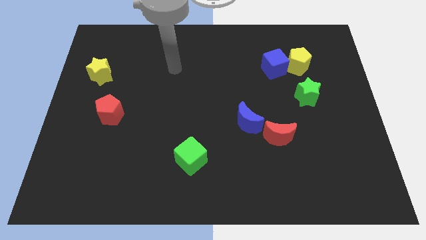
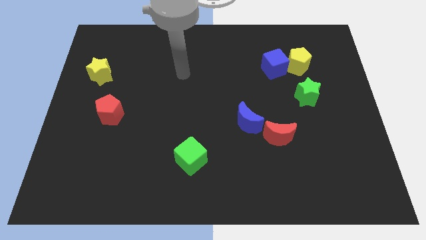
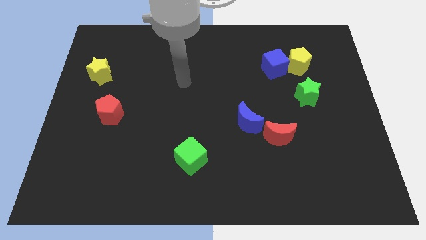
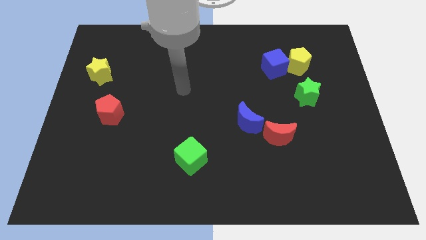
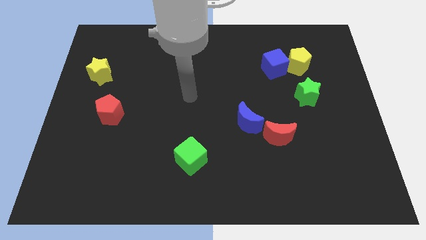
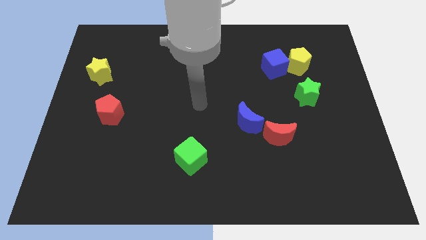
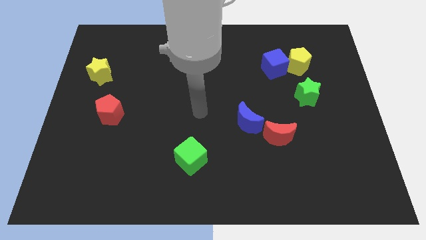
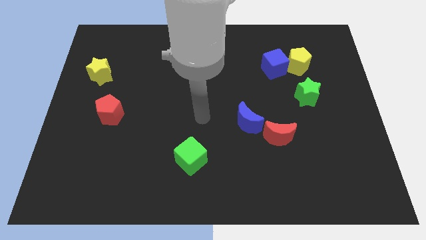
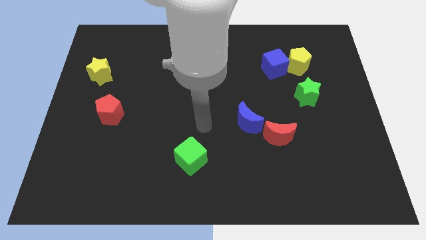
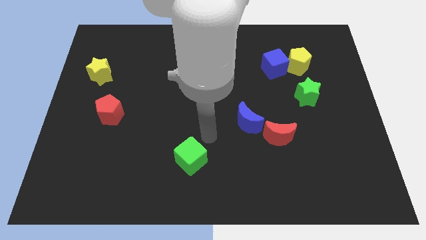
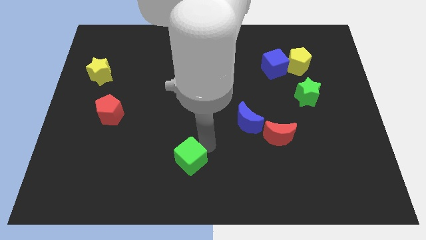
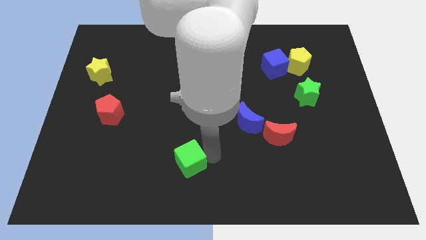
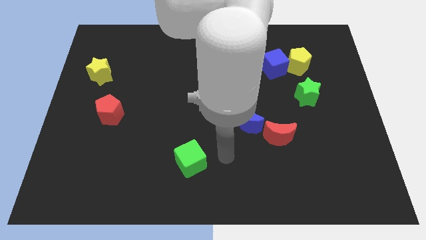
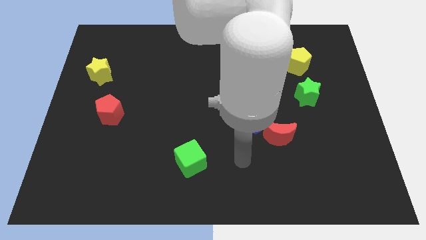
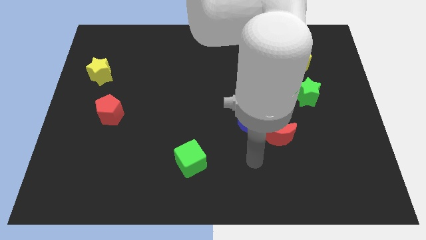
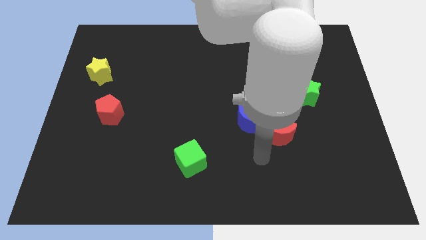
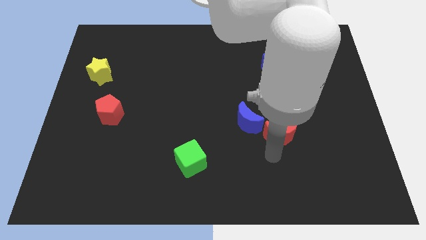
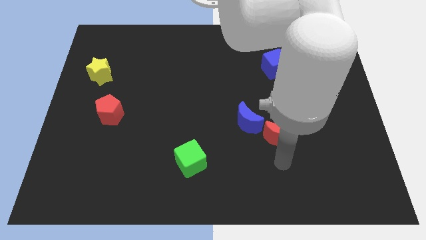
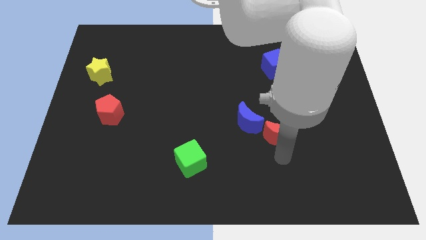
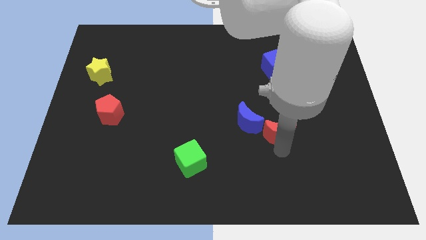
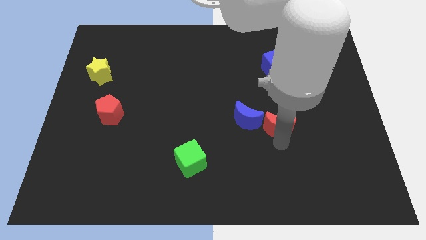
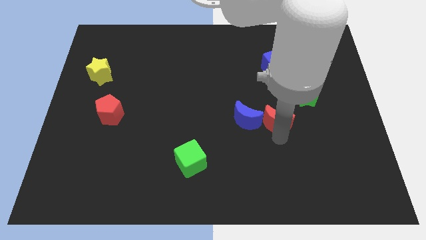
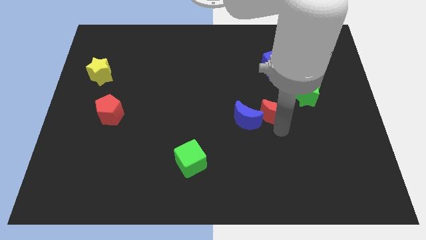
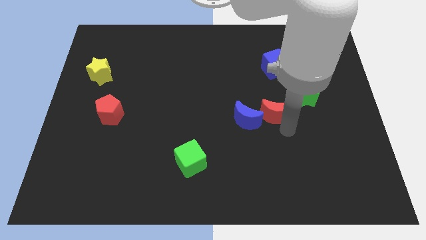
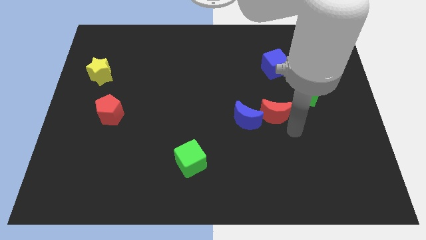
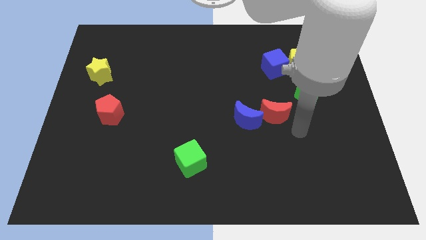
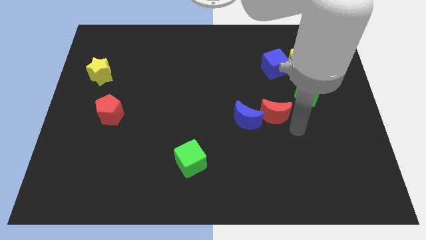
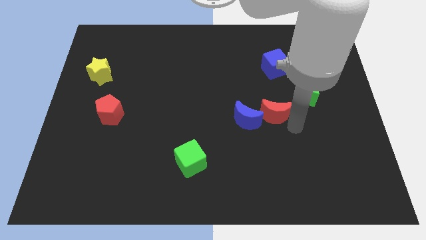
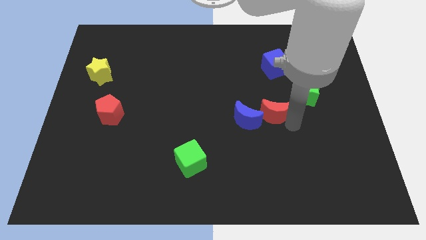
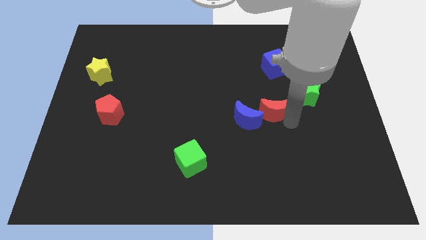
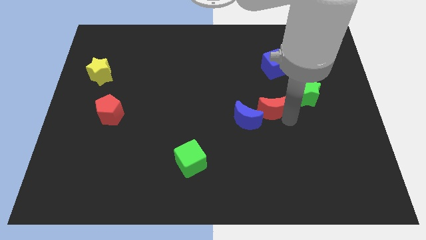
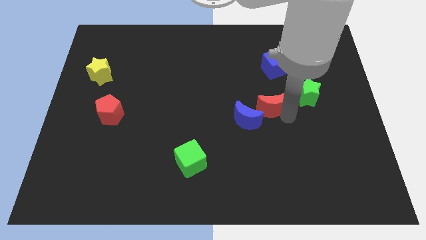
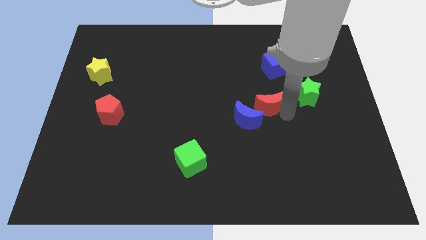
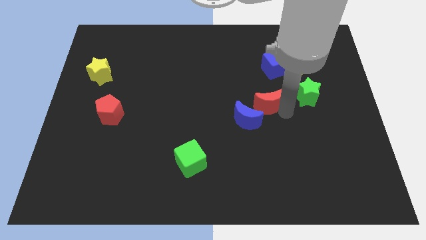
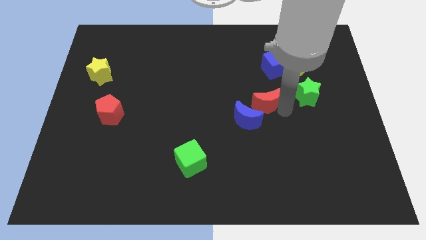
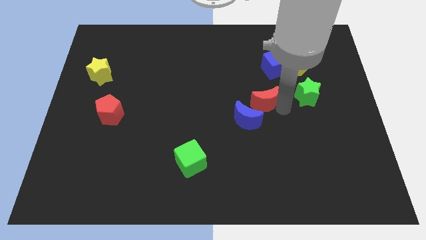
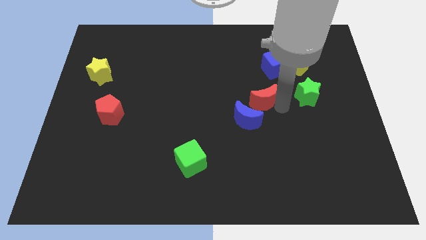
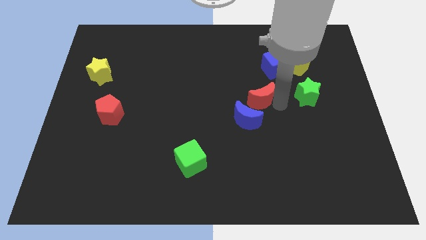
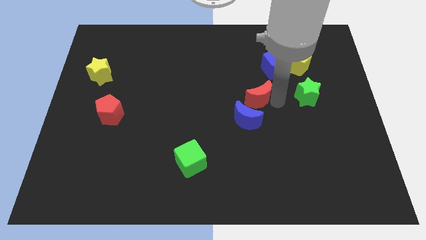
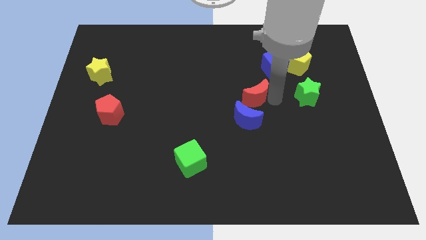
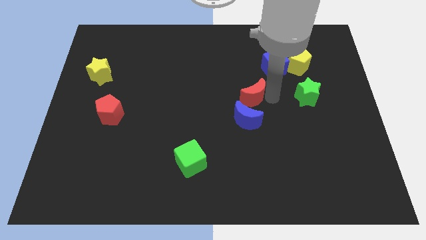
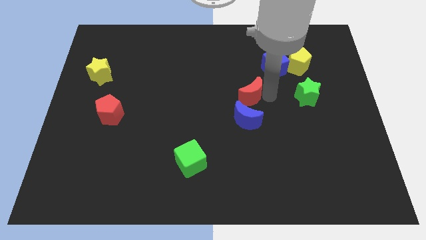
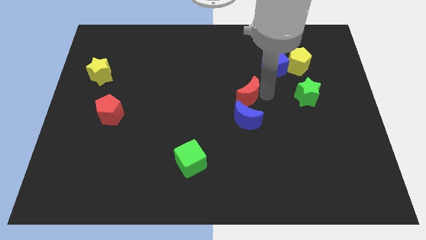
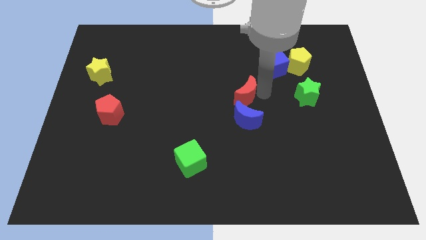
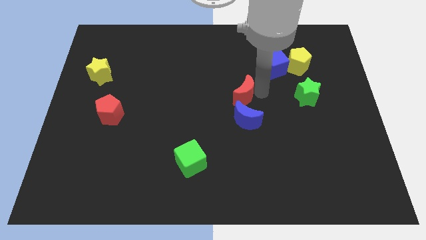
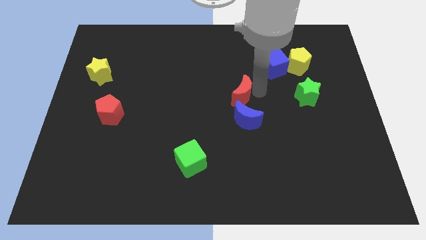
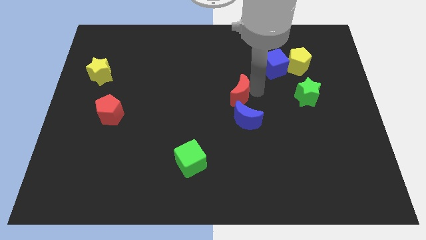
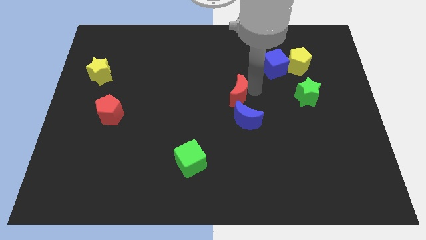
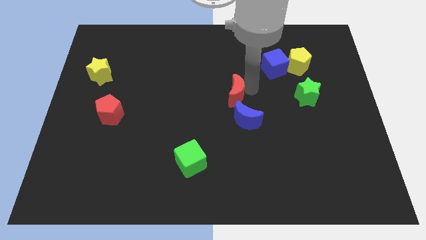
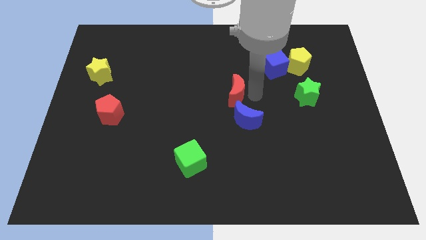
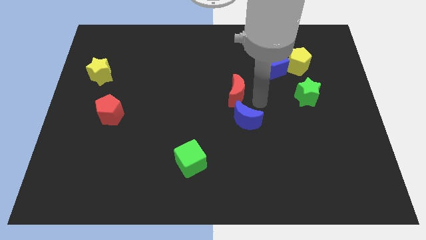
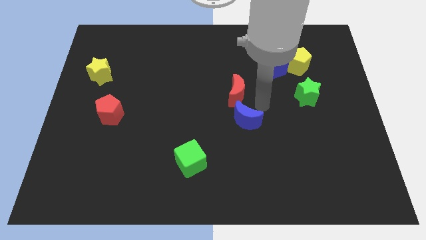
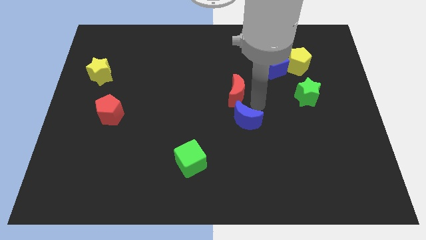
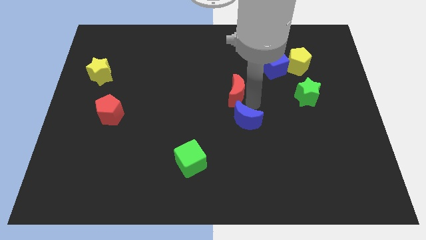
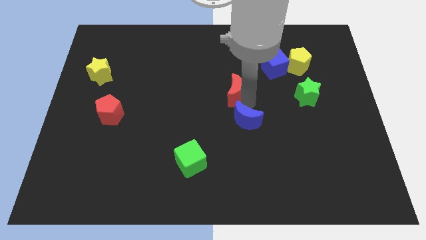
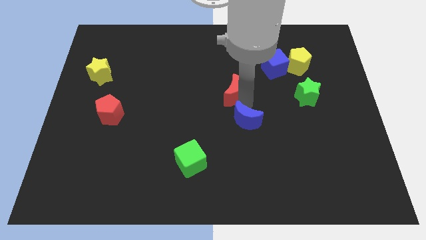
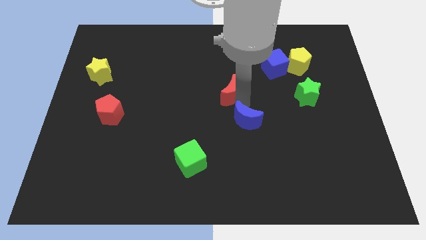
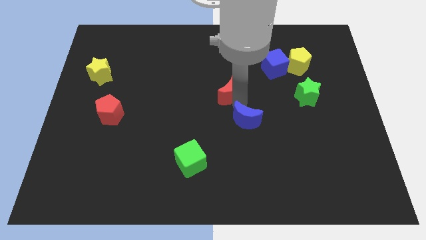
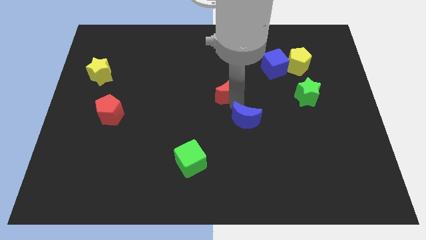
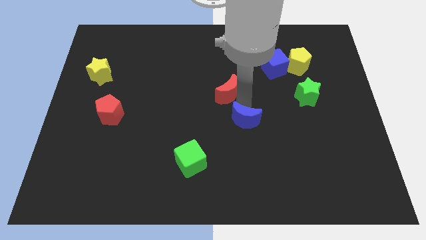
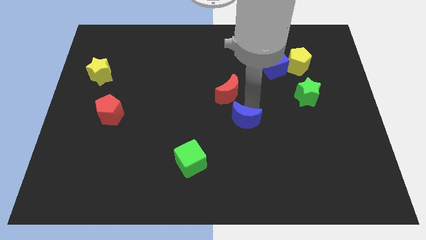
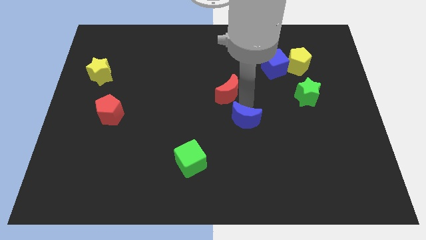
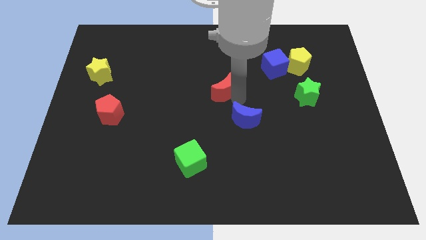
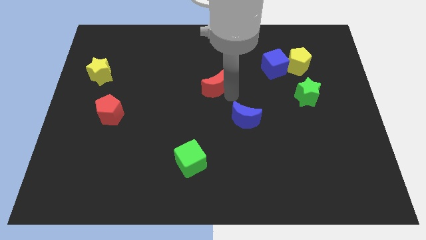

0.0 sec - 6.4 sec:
move the red moon diagonally upwards and to the left

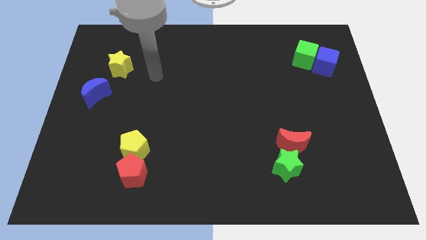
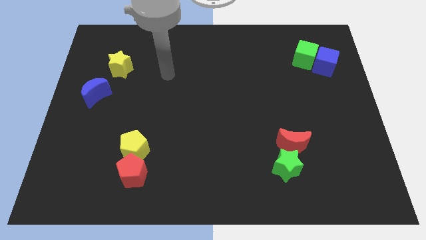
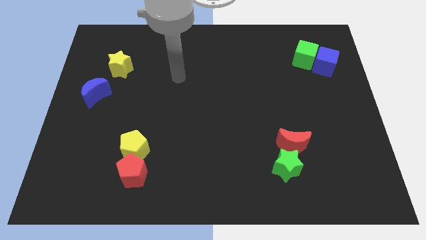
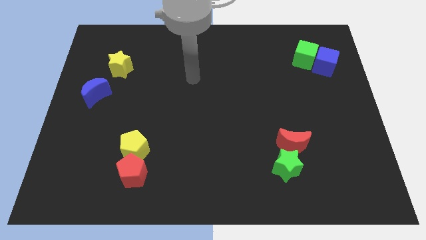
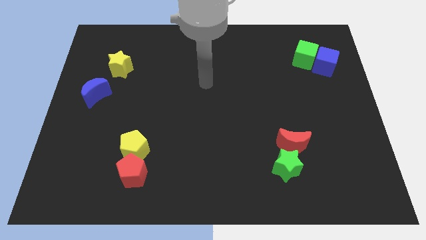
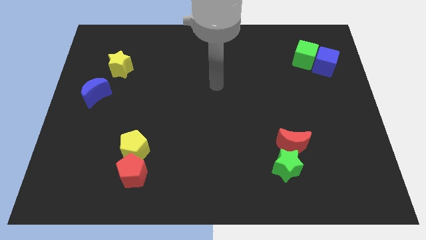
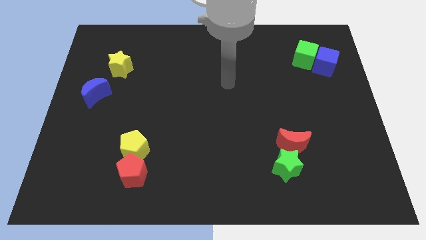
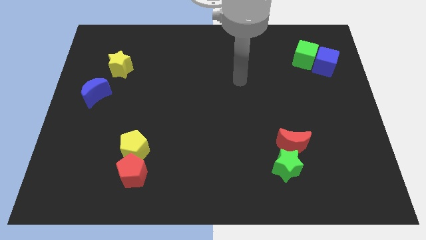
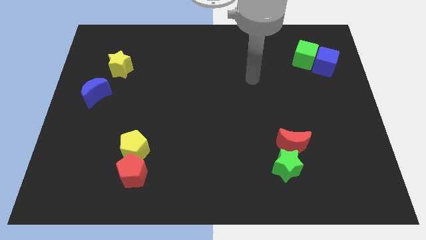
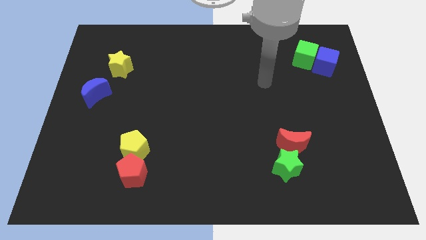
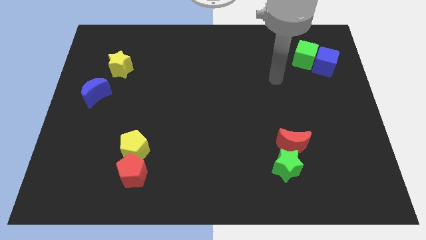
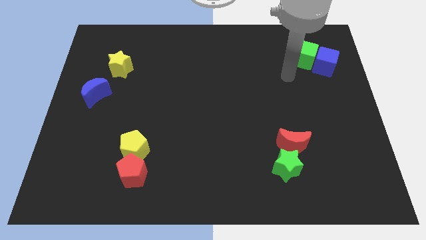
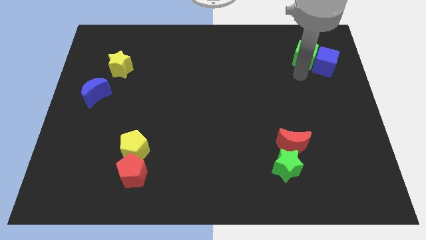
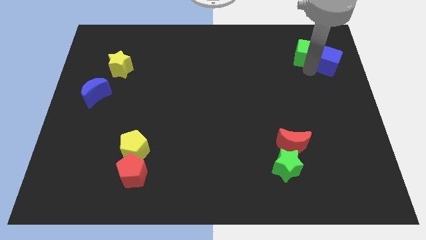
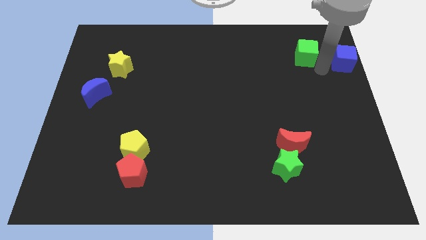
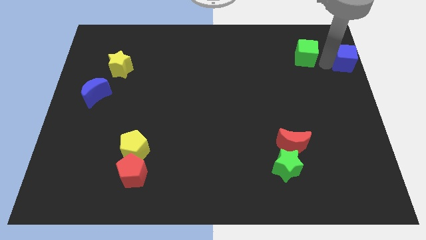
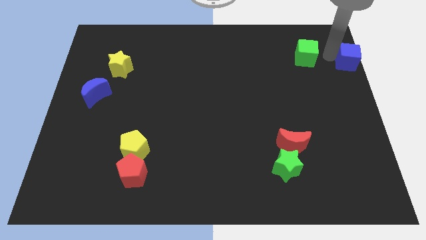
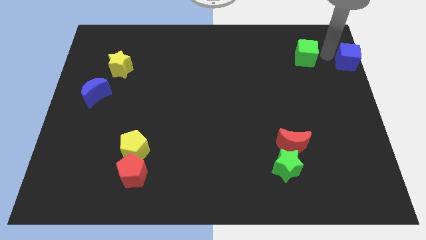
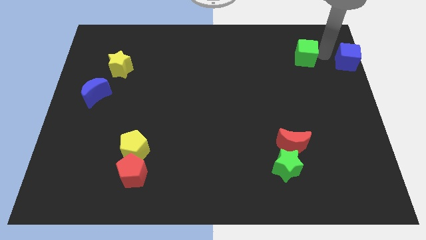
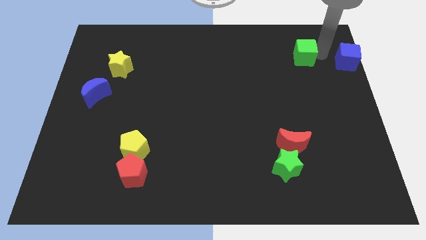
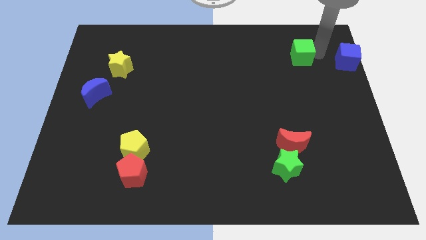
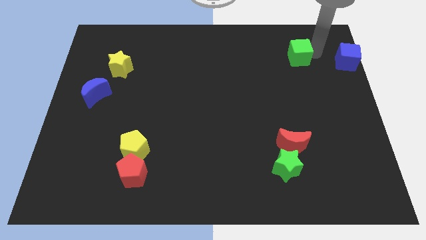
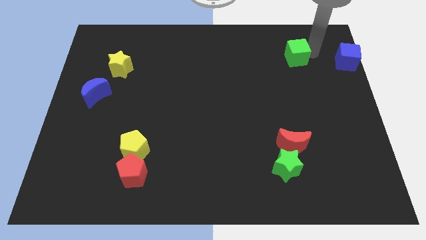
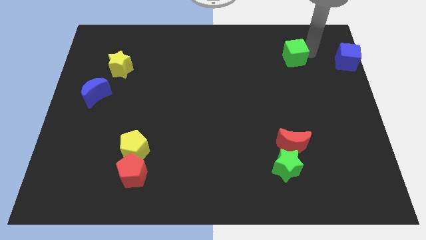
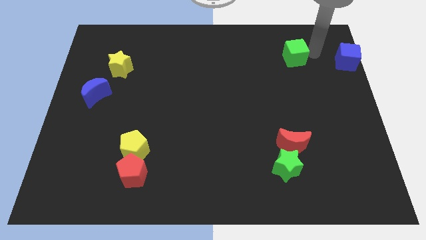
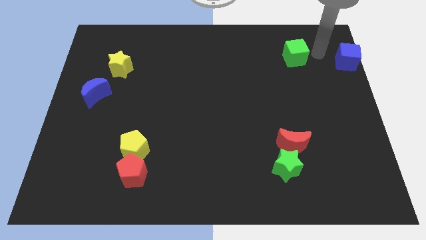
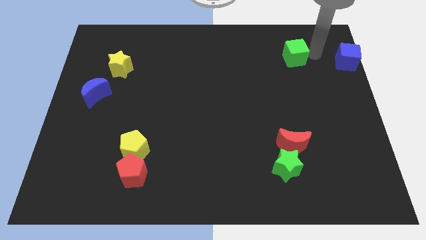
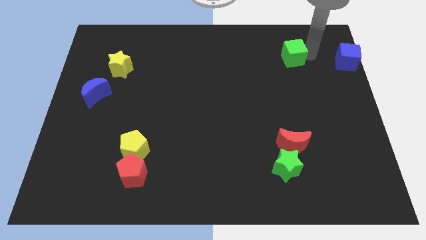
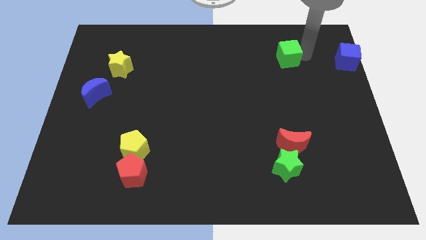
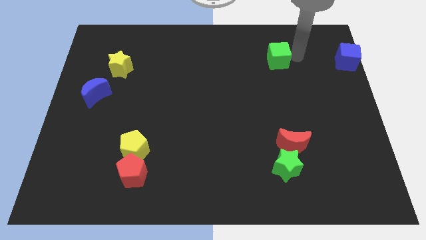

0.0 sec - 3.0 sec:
slightly slide the green cube to the left
